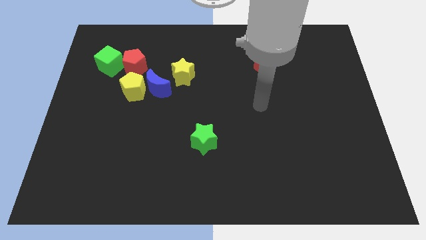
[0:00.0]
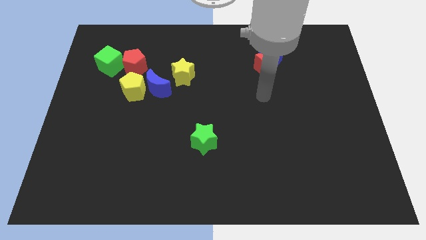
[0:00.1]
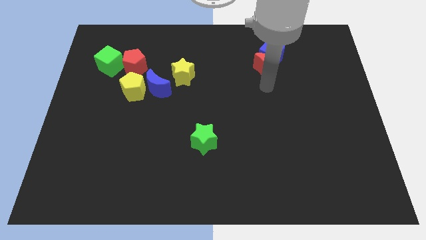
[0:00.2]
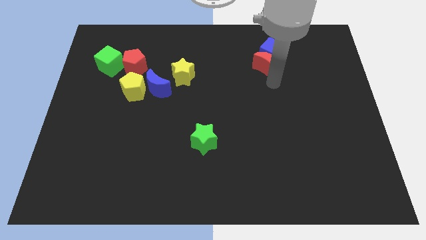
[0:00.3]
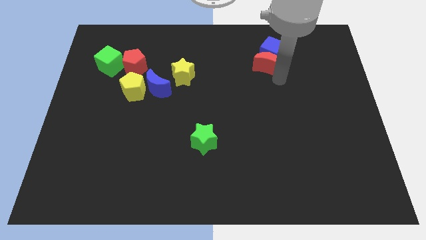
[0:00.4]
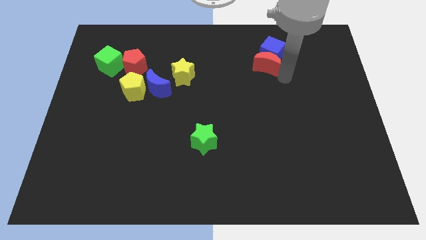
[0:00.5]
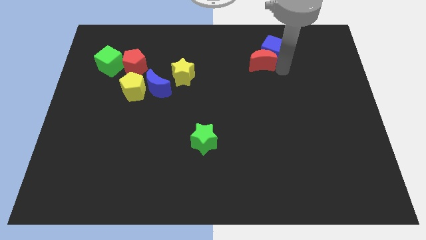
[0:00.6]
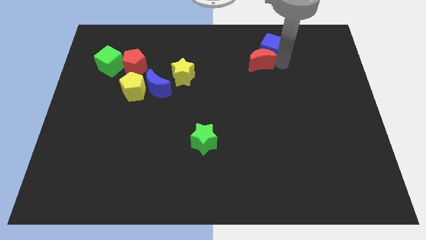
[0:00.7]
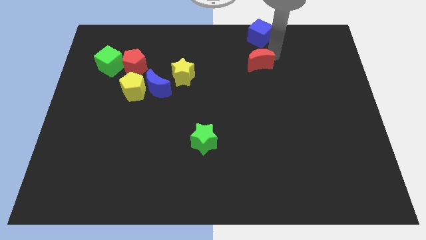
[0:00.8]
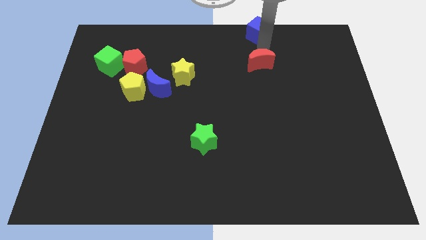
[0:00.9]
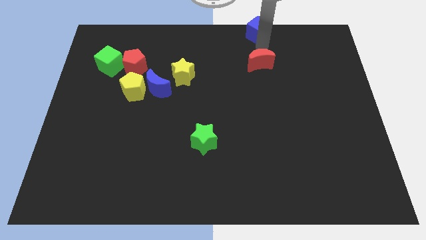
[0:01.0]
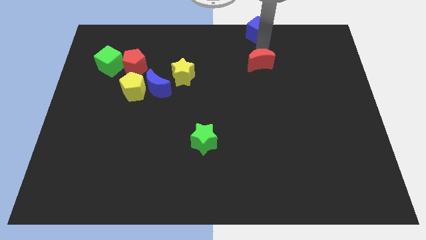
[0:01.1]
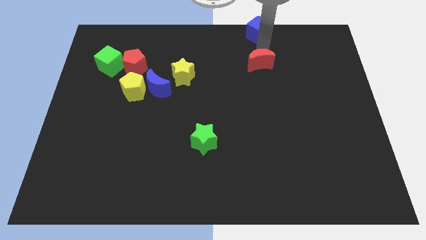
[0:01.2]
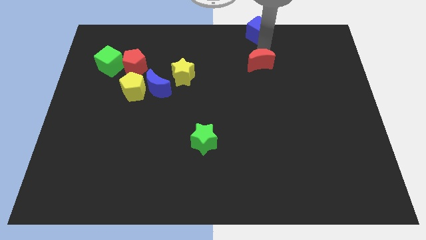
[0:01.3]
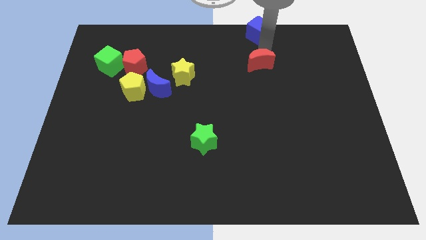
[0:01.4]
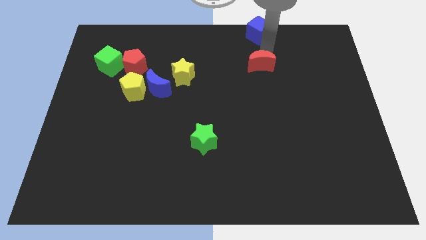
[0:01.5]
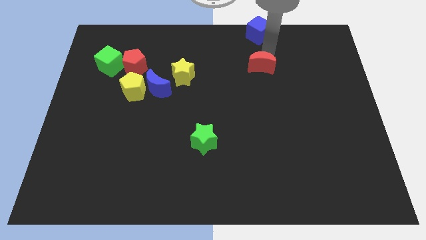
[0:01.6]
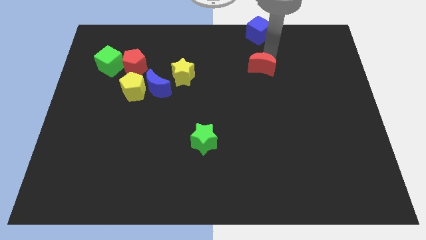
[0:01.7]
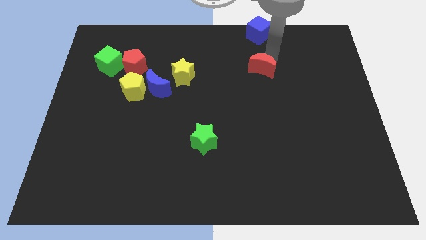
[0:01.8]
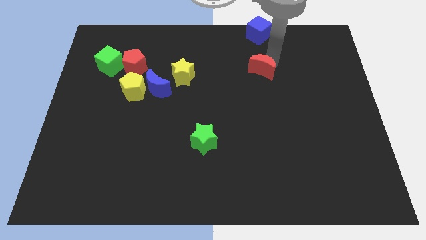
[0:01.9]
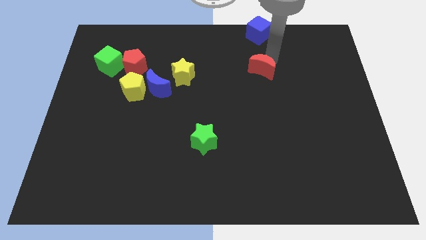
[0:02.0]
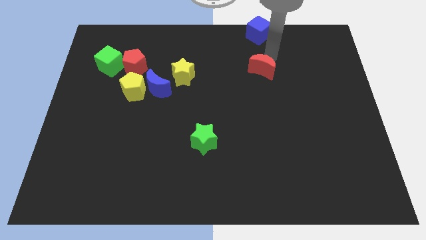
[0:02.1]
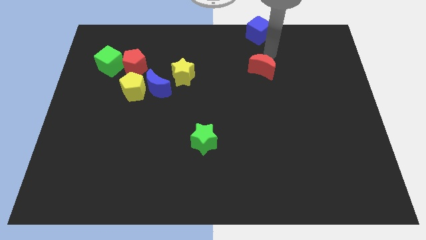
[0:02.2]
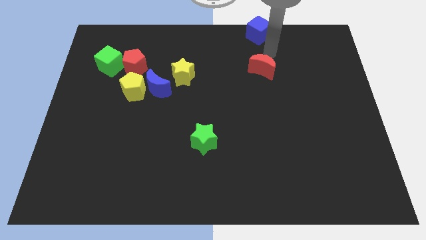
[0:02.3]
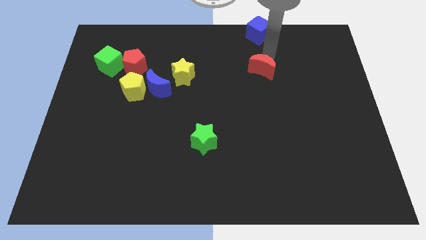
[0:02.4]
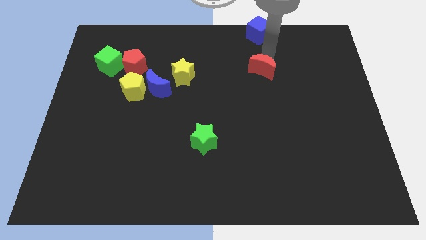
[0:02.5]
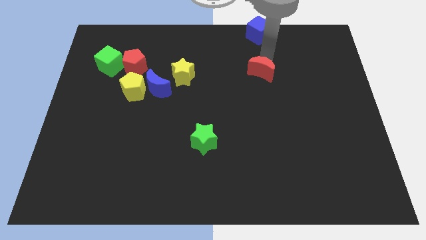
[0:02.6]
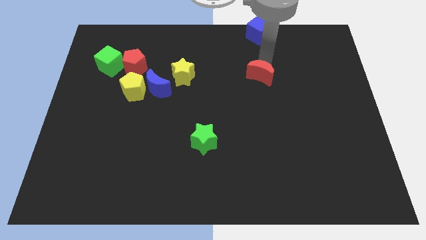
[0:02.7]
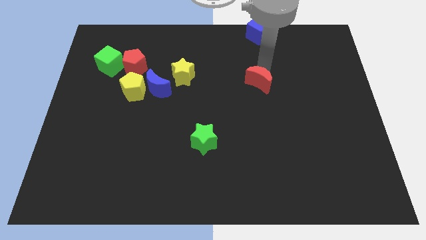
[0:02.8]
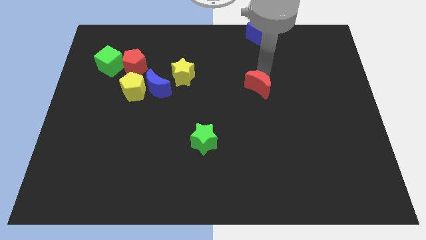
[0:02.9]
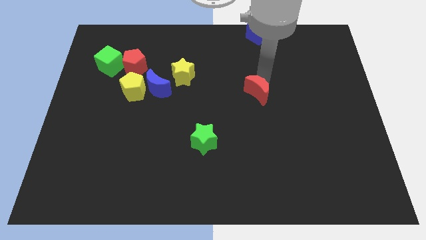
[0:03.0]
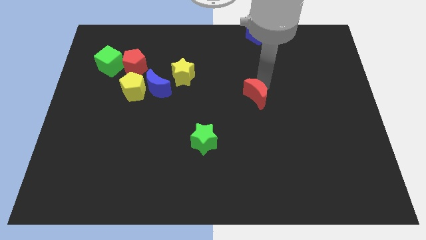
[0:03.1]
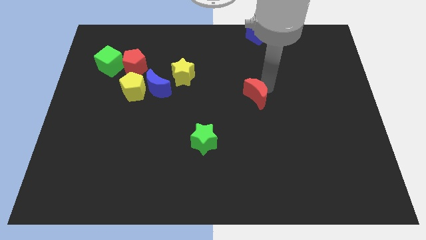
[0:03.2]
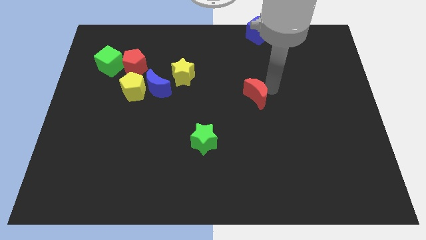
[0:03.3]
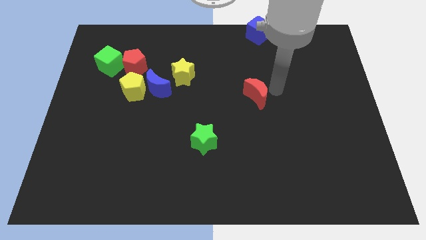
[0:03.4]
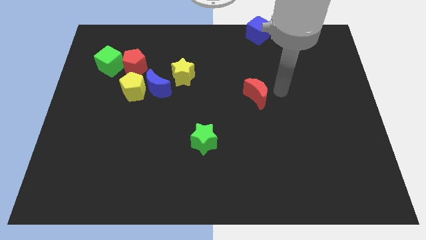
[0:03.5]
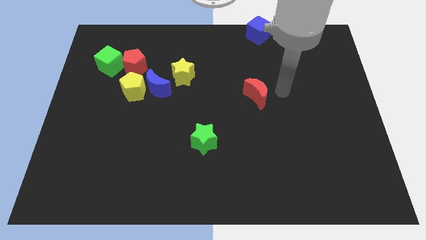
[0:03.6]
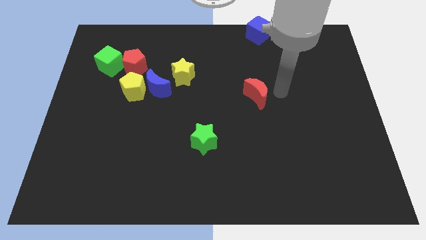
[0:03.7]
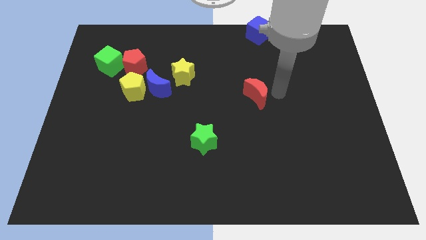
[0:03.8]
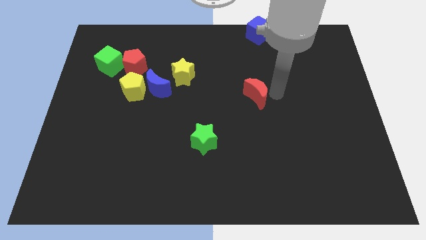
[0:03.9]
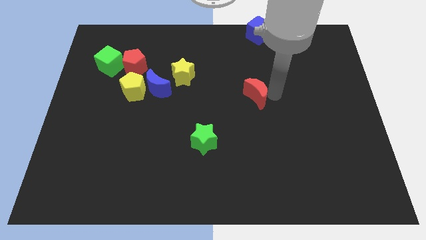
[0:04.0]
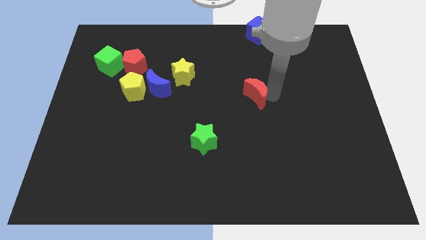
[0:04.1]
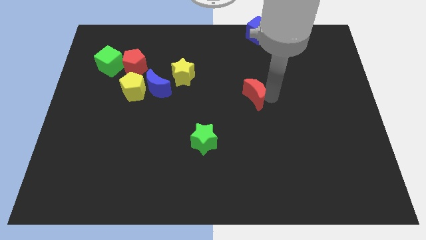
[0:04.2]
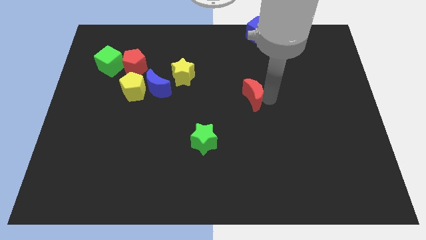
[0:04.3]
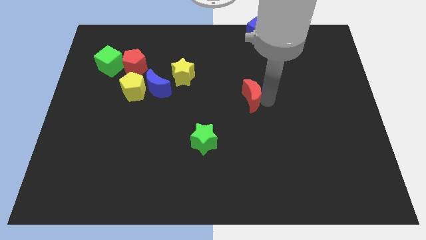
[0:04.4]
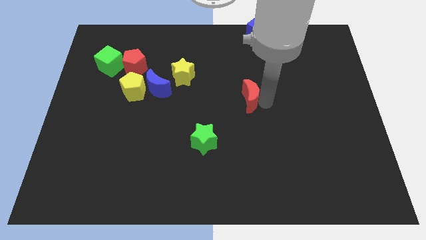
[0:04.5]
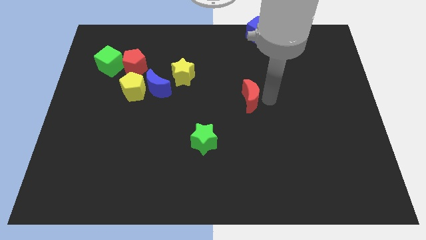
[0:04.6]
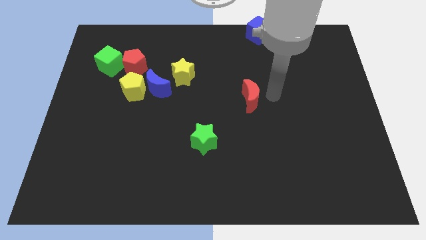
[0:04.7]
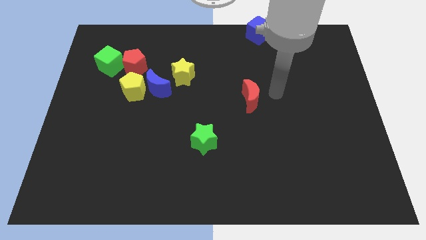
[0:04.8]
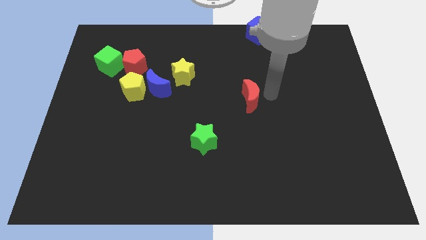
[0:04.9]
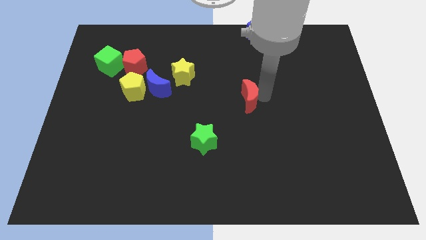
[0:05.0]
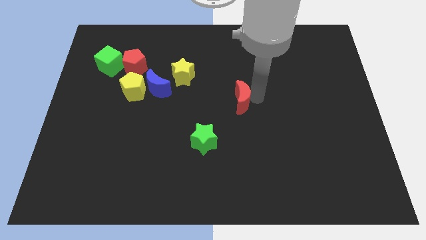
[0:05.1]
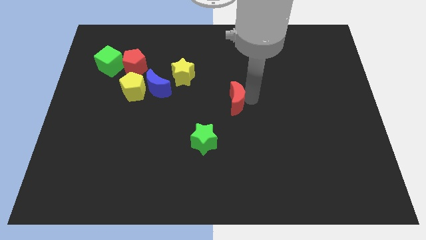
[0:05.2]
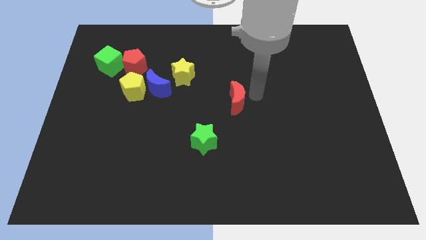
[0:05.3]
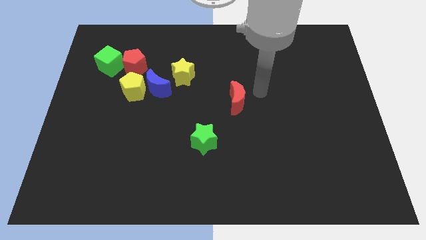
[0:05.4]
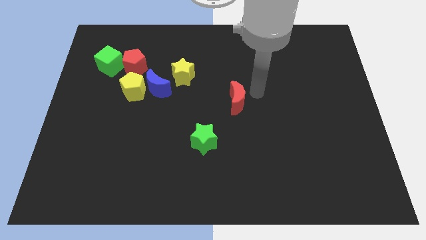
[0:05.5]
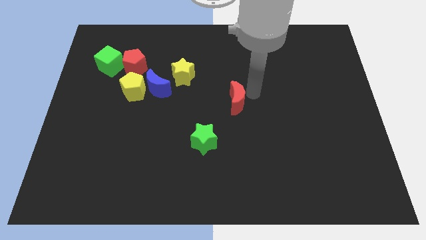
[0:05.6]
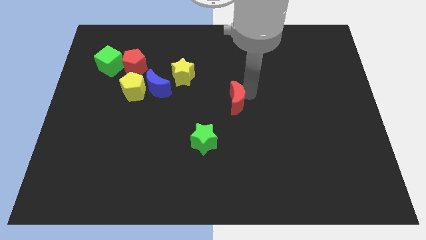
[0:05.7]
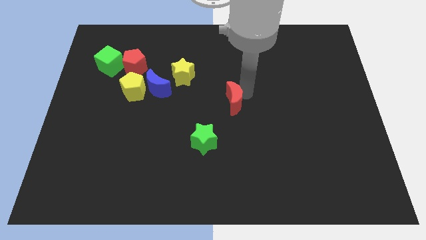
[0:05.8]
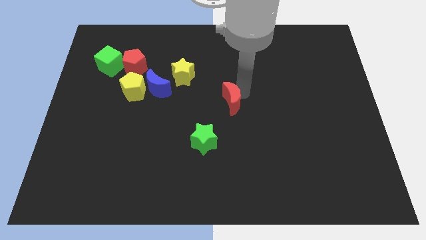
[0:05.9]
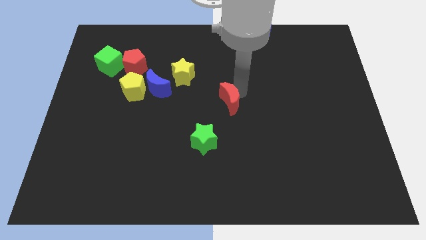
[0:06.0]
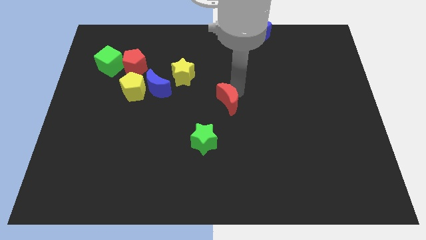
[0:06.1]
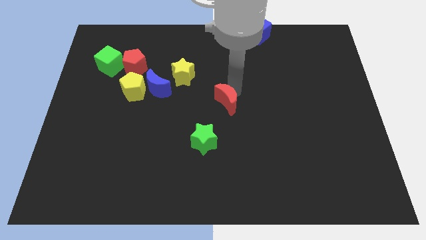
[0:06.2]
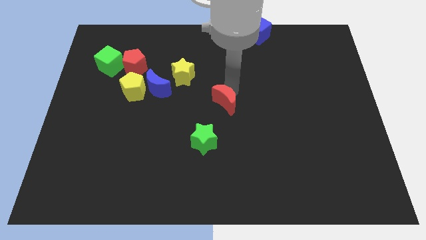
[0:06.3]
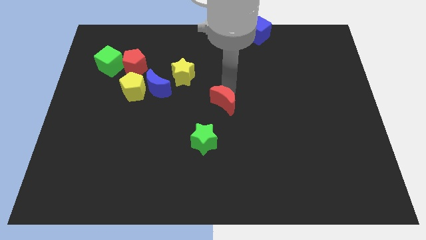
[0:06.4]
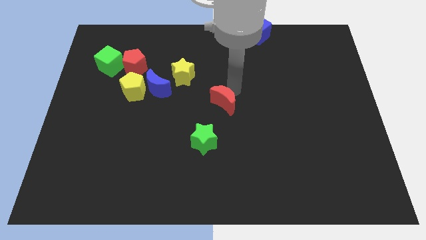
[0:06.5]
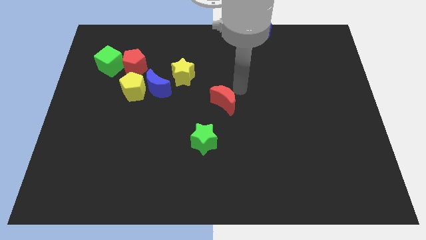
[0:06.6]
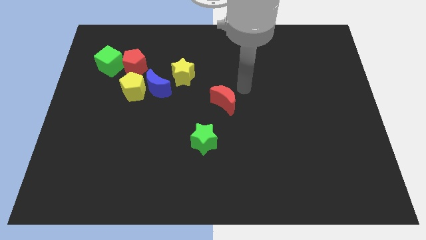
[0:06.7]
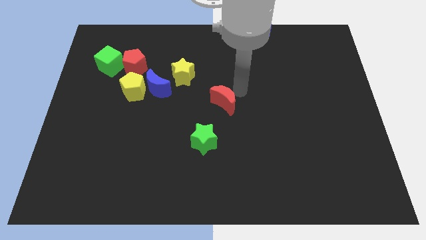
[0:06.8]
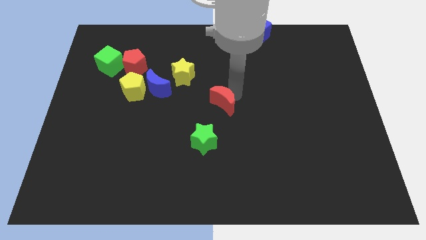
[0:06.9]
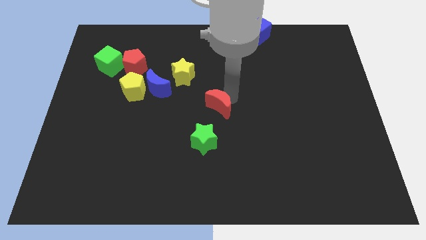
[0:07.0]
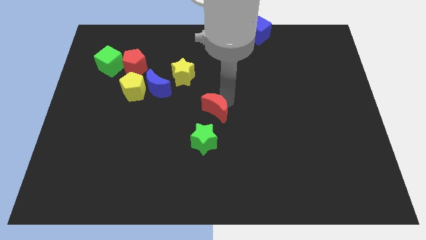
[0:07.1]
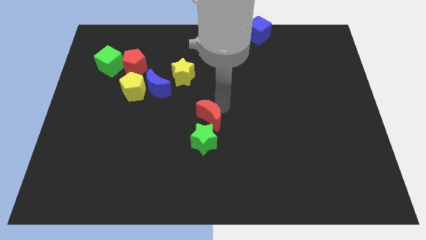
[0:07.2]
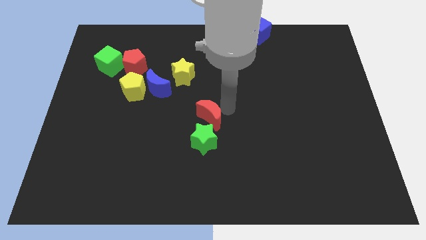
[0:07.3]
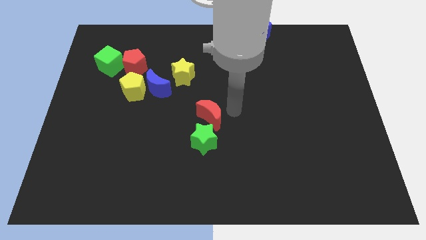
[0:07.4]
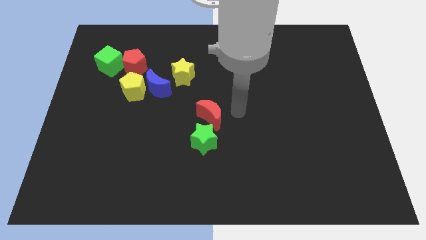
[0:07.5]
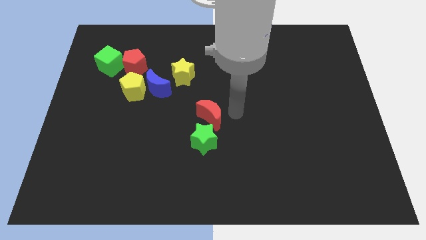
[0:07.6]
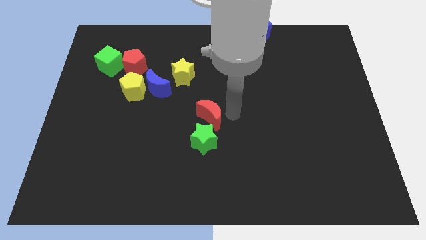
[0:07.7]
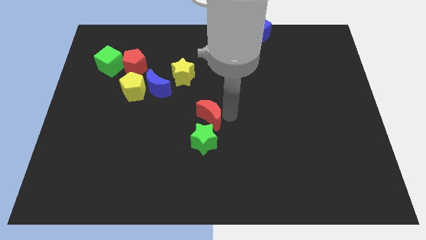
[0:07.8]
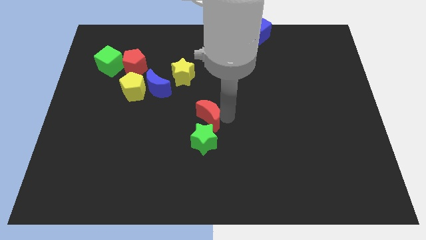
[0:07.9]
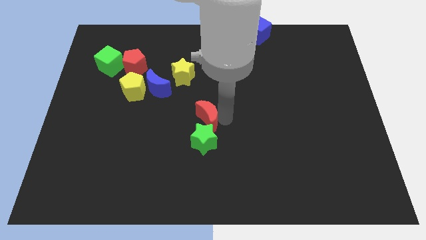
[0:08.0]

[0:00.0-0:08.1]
slide the red moon to the top left side of the green star
